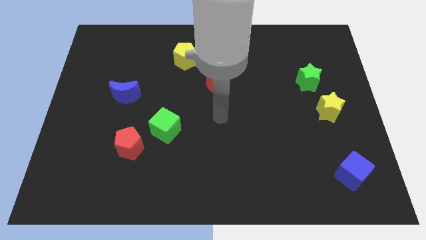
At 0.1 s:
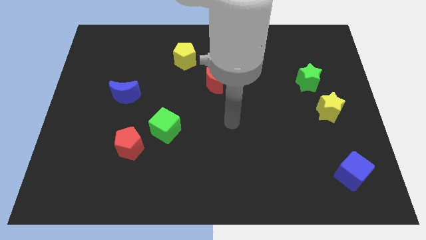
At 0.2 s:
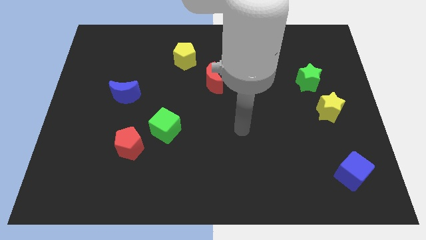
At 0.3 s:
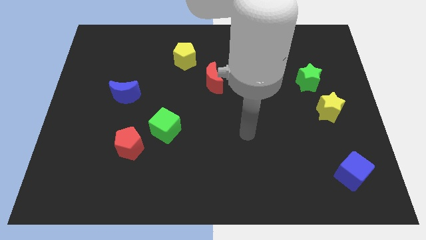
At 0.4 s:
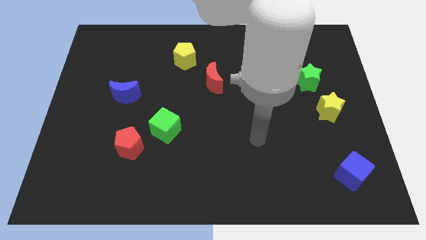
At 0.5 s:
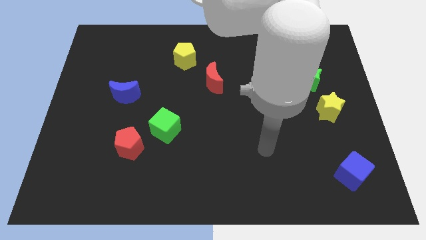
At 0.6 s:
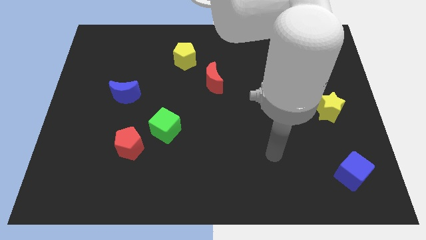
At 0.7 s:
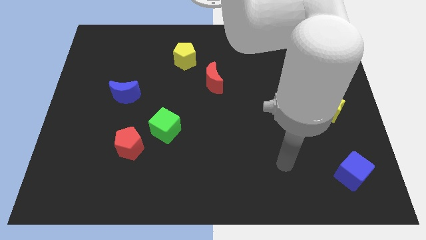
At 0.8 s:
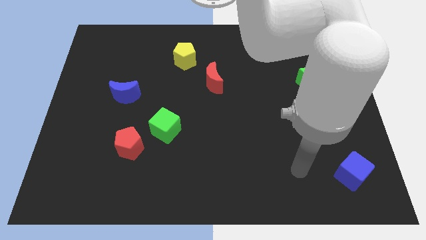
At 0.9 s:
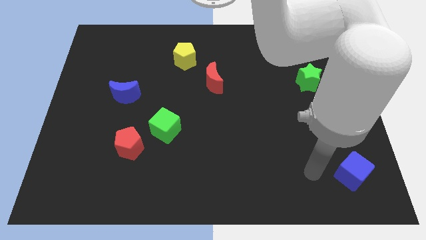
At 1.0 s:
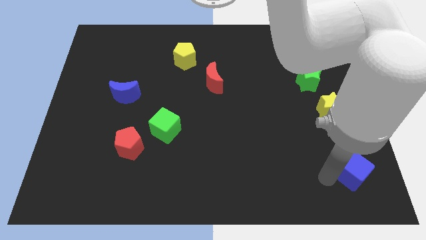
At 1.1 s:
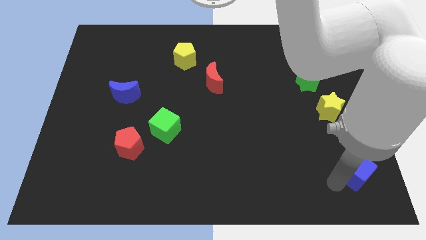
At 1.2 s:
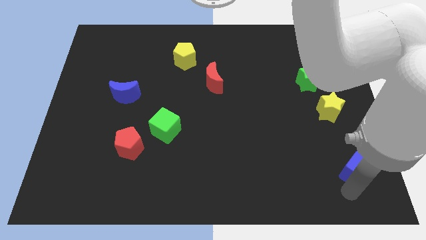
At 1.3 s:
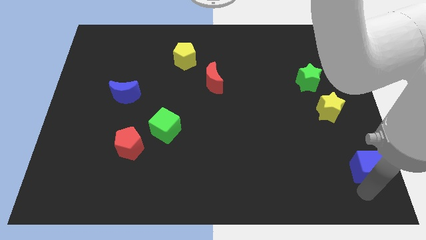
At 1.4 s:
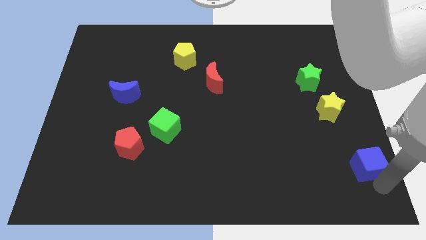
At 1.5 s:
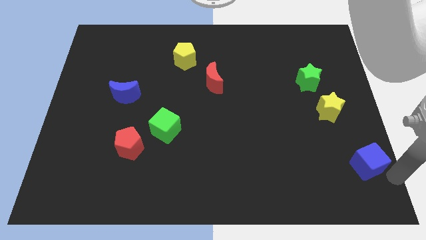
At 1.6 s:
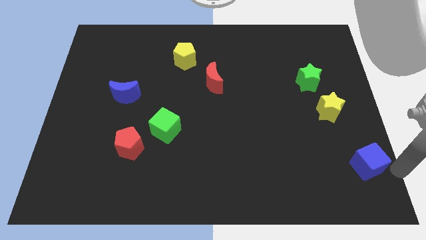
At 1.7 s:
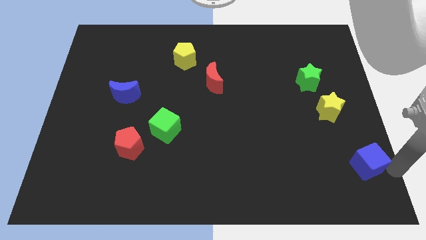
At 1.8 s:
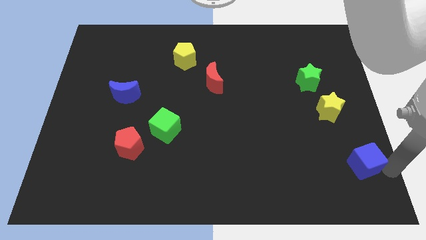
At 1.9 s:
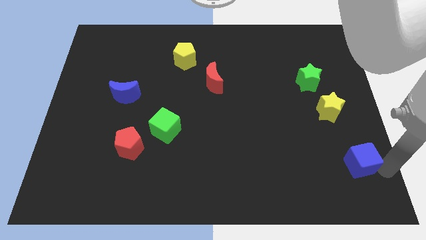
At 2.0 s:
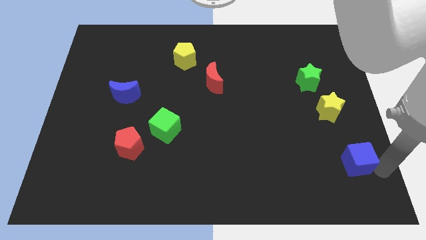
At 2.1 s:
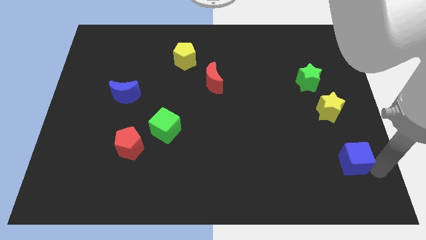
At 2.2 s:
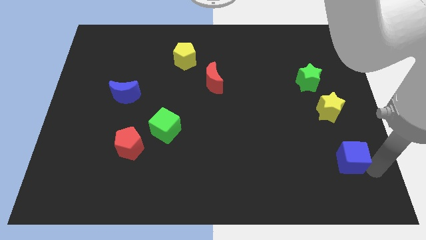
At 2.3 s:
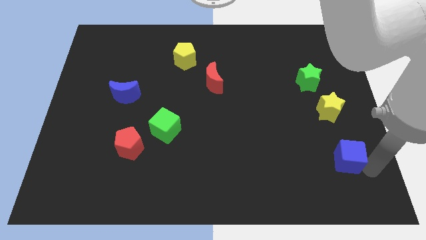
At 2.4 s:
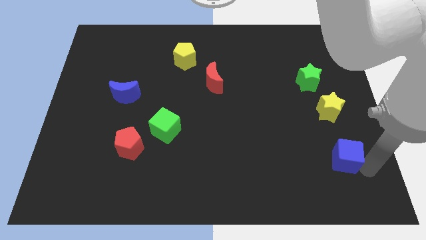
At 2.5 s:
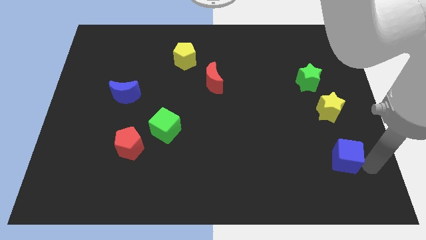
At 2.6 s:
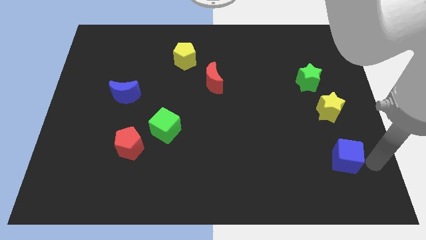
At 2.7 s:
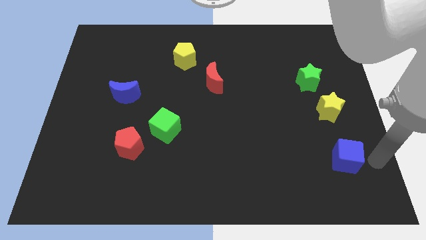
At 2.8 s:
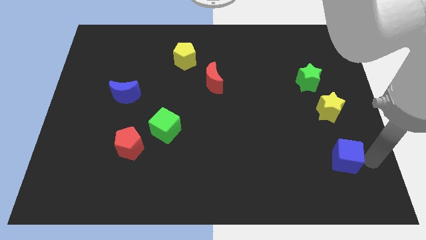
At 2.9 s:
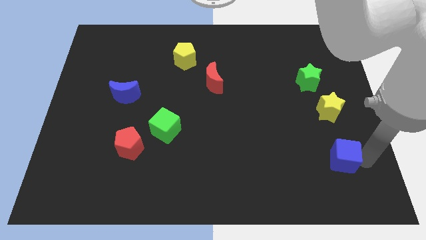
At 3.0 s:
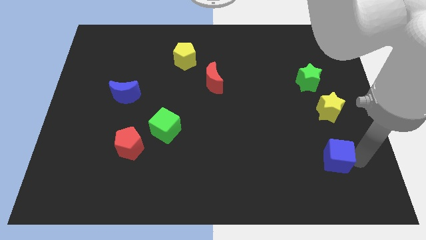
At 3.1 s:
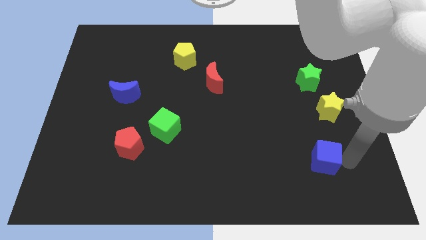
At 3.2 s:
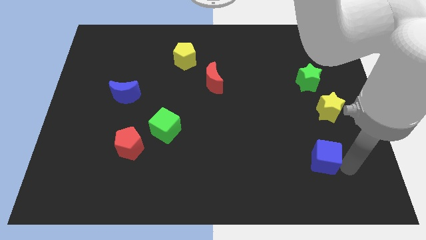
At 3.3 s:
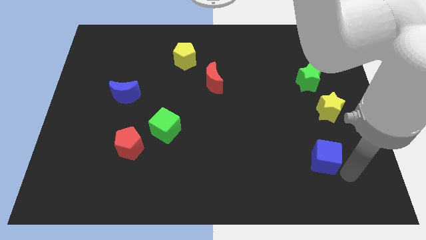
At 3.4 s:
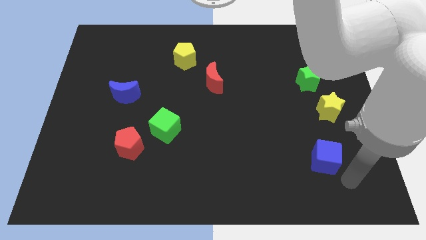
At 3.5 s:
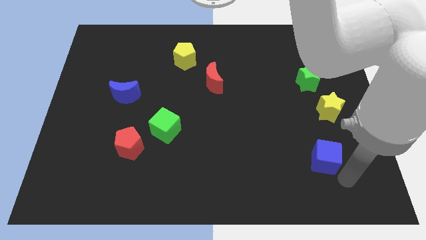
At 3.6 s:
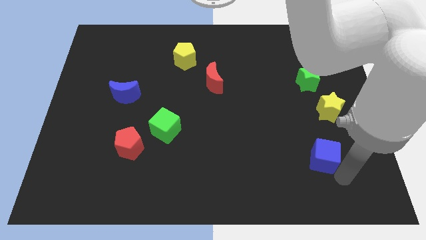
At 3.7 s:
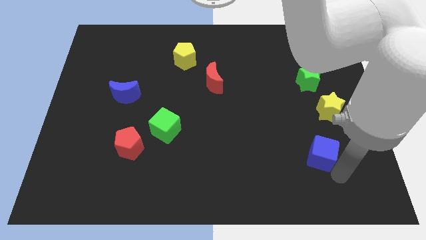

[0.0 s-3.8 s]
slightly move the blue cube upwards and left diagonally

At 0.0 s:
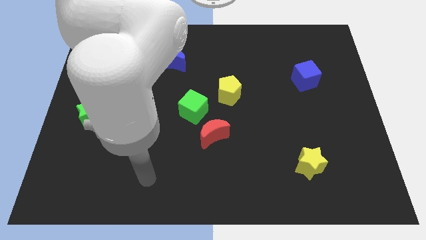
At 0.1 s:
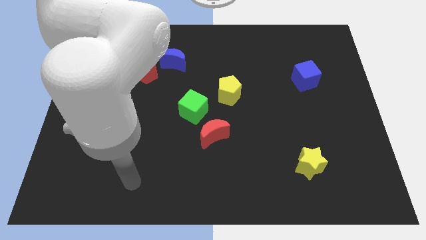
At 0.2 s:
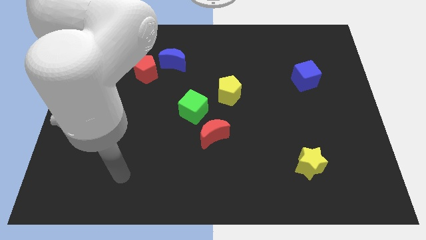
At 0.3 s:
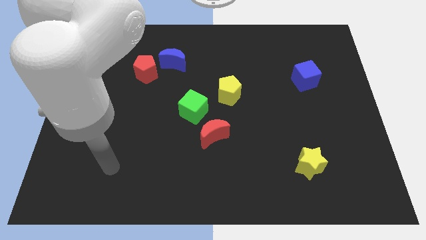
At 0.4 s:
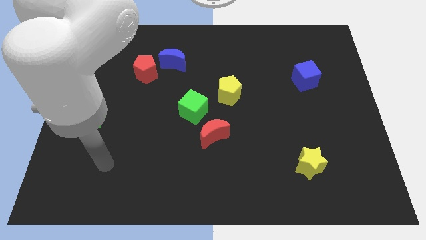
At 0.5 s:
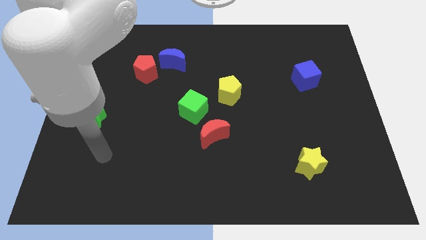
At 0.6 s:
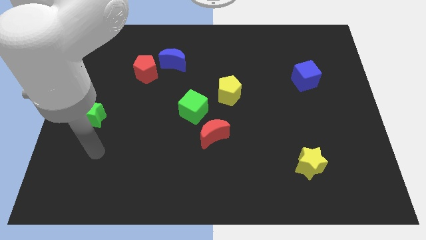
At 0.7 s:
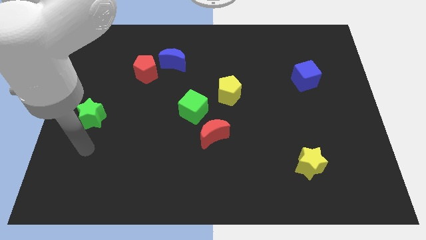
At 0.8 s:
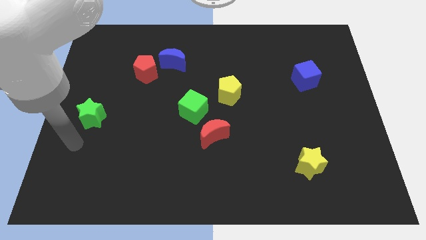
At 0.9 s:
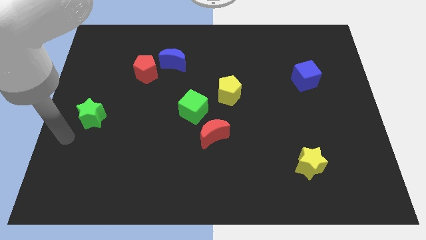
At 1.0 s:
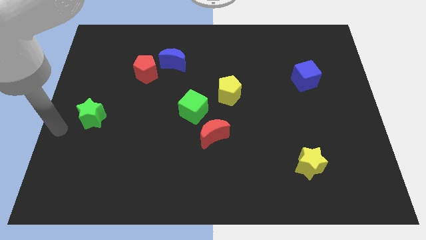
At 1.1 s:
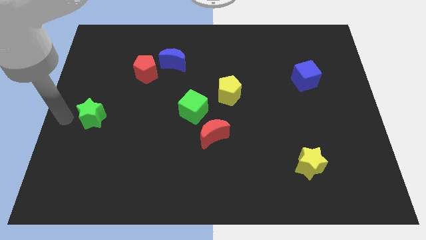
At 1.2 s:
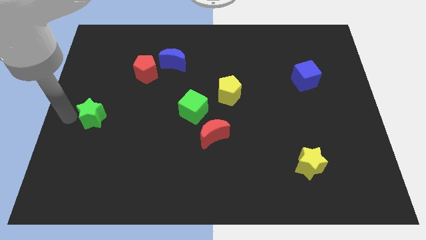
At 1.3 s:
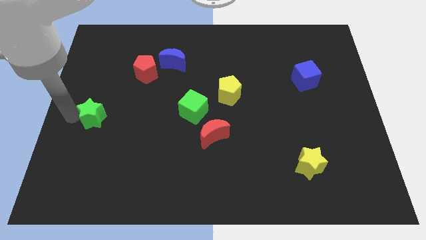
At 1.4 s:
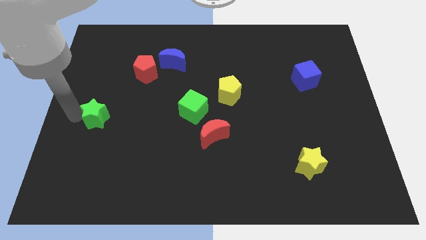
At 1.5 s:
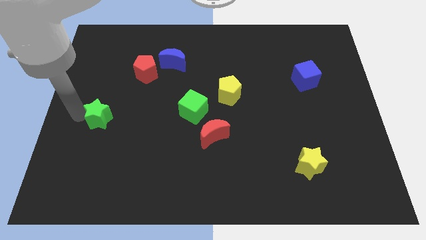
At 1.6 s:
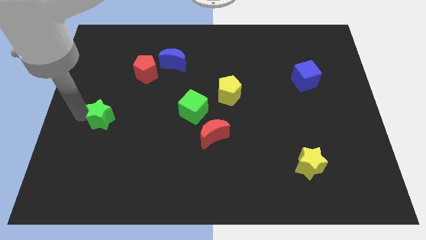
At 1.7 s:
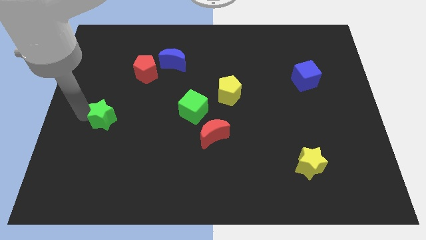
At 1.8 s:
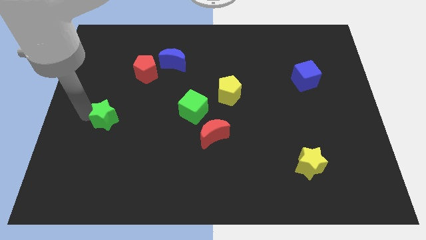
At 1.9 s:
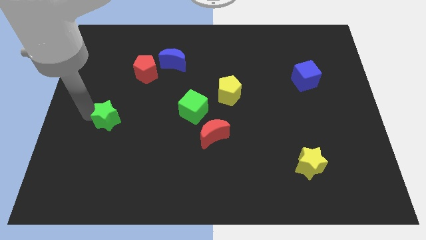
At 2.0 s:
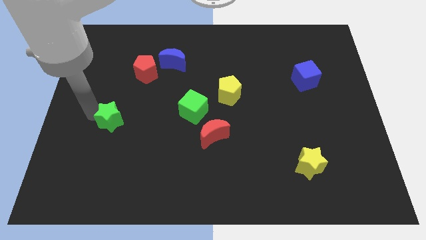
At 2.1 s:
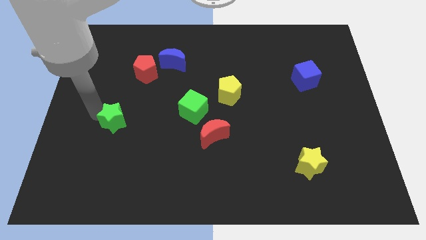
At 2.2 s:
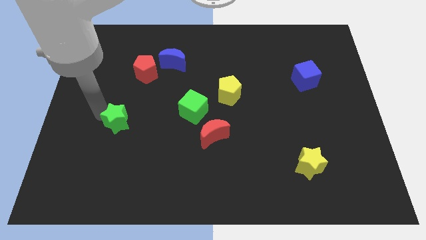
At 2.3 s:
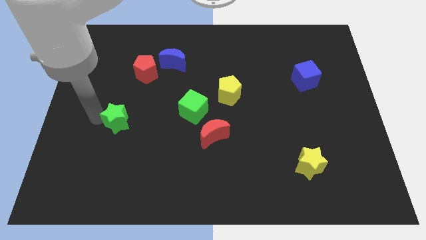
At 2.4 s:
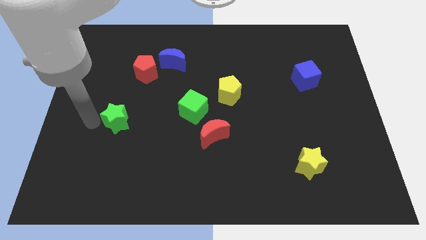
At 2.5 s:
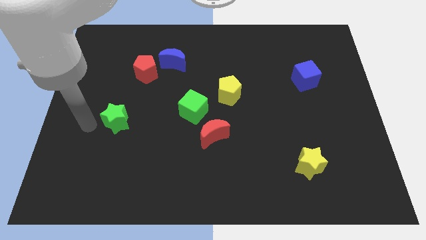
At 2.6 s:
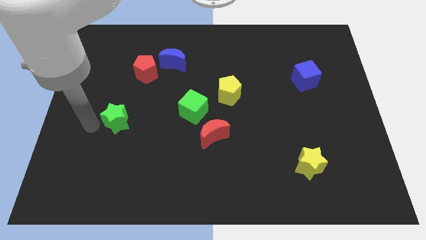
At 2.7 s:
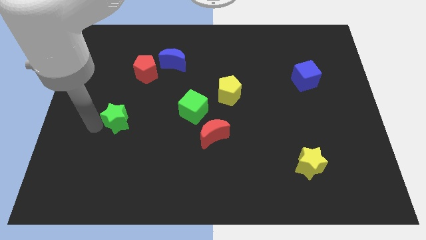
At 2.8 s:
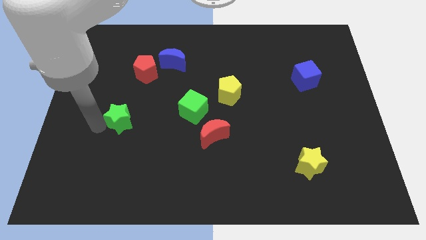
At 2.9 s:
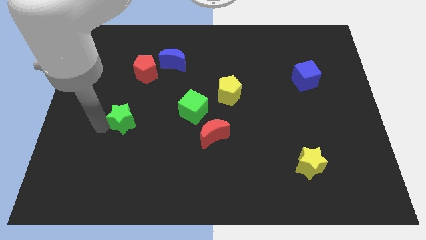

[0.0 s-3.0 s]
slightly slide the green star to the right

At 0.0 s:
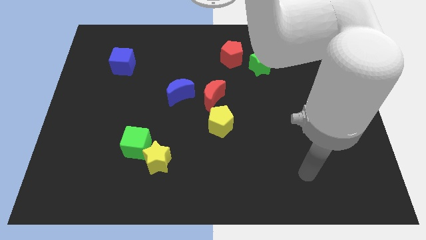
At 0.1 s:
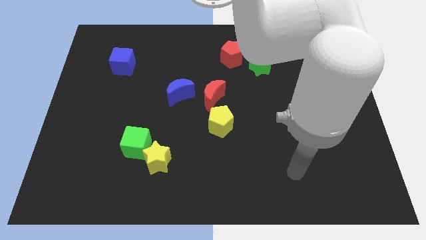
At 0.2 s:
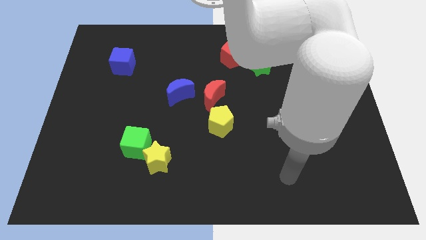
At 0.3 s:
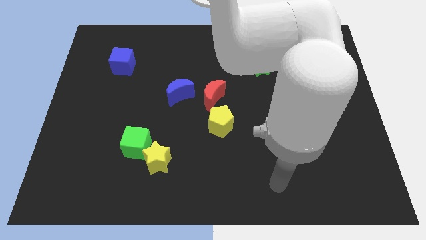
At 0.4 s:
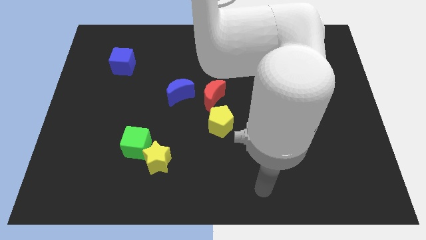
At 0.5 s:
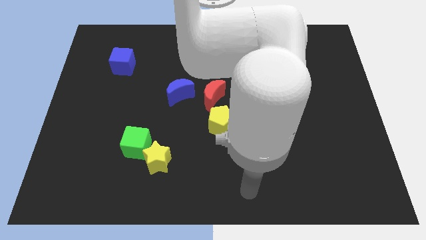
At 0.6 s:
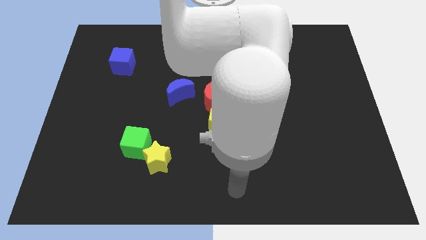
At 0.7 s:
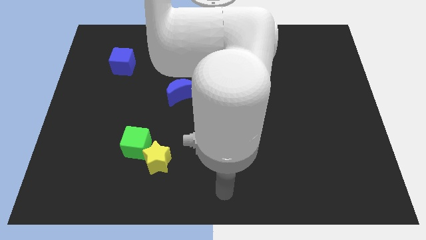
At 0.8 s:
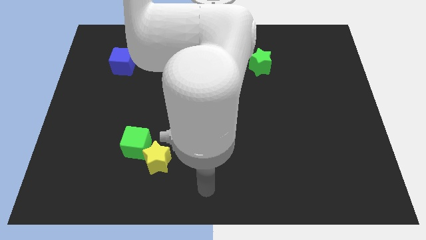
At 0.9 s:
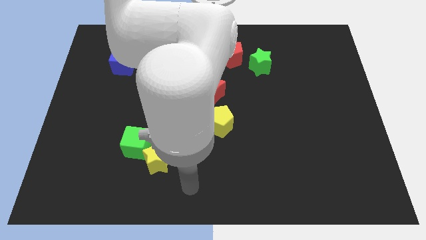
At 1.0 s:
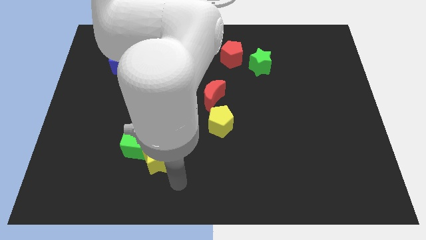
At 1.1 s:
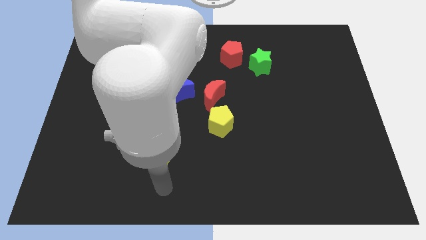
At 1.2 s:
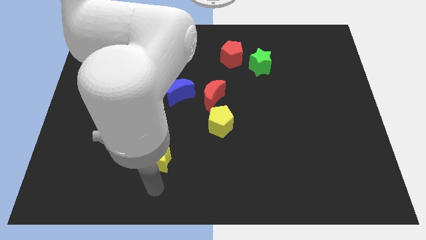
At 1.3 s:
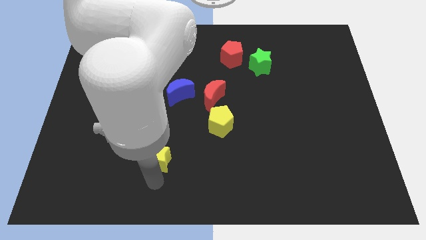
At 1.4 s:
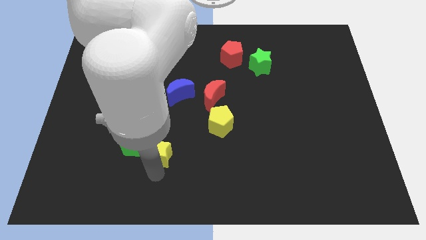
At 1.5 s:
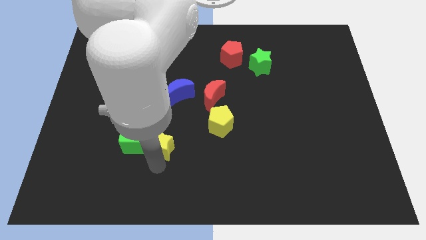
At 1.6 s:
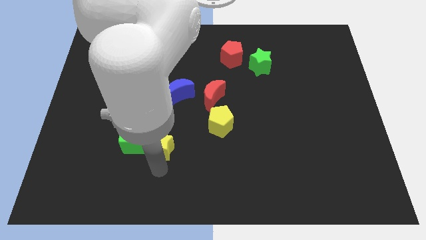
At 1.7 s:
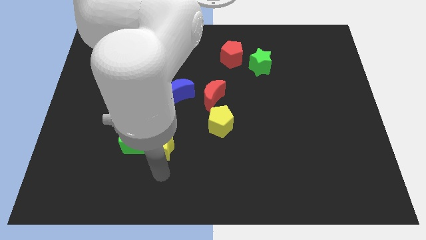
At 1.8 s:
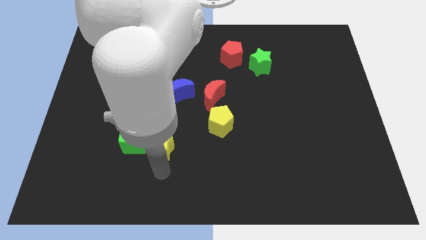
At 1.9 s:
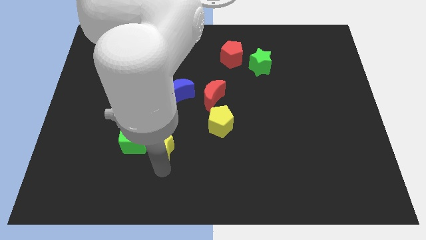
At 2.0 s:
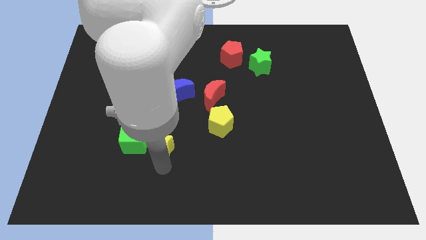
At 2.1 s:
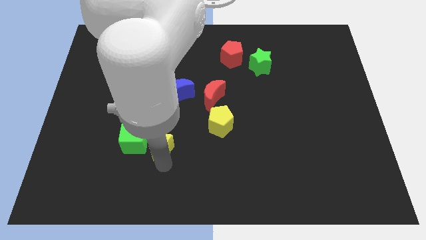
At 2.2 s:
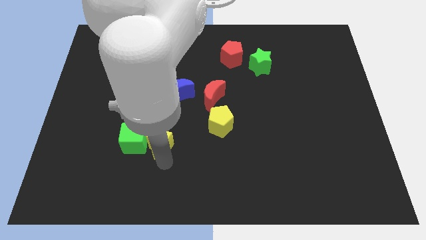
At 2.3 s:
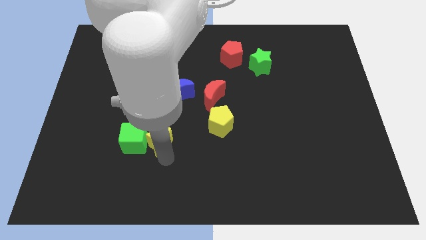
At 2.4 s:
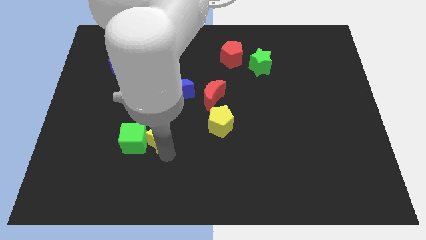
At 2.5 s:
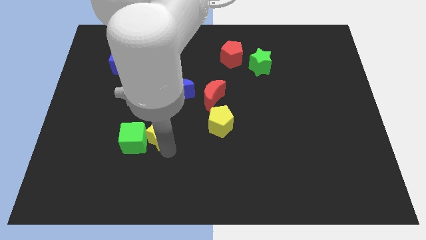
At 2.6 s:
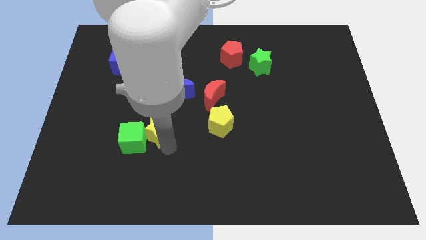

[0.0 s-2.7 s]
push the yellow star somewhat upwards
